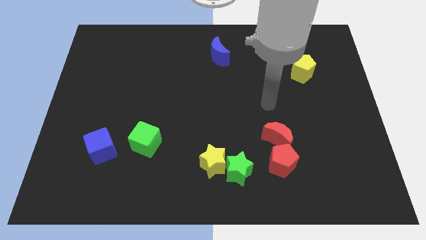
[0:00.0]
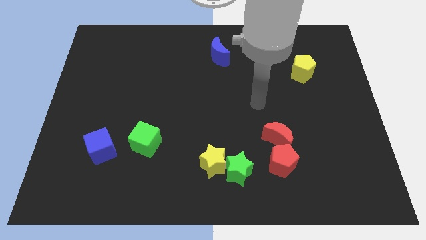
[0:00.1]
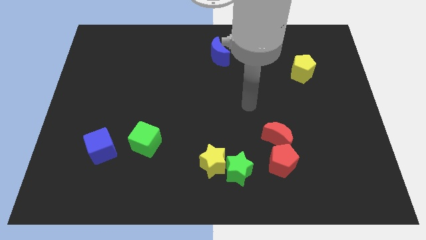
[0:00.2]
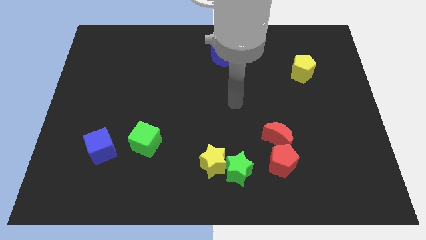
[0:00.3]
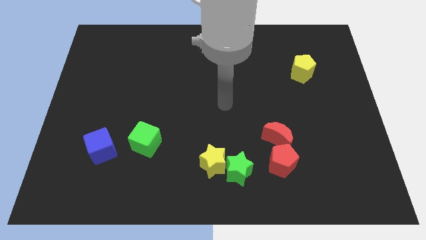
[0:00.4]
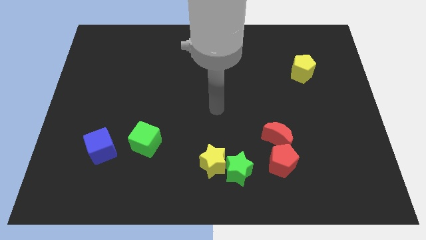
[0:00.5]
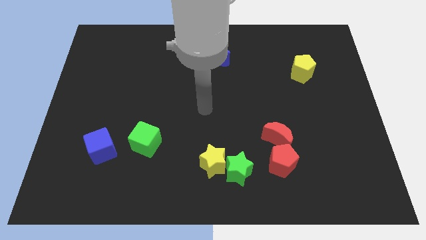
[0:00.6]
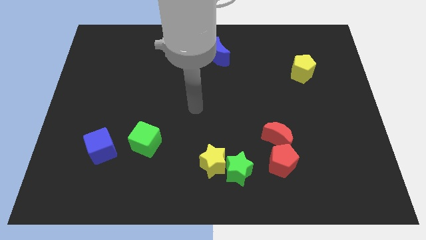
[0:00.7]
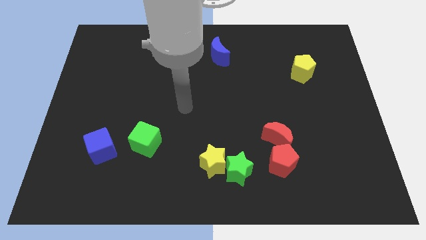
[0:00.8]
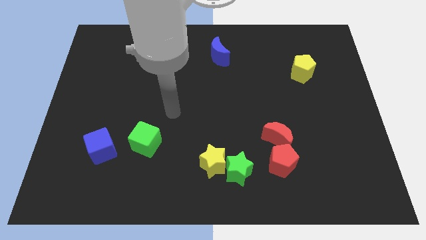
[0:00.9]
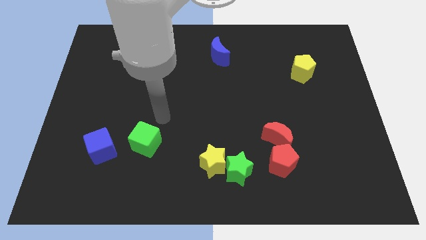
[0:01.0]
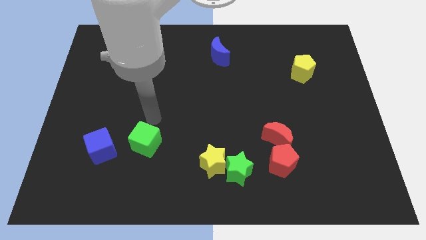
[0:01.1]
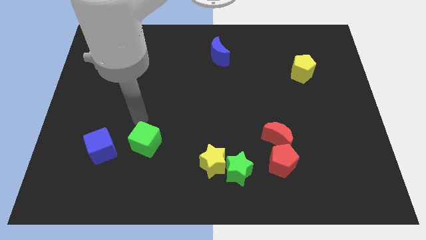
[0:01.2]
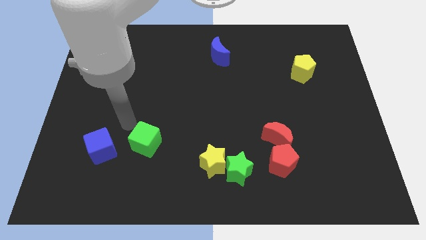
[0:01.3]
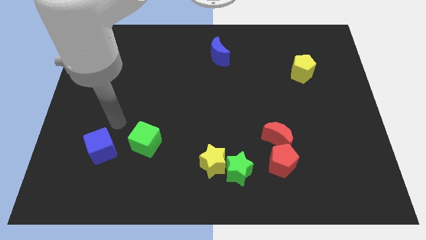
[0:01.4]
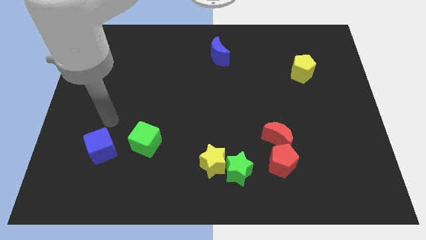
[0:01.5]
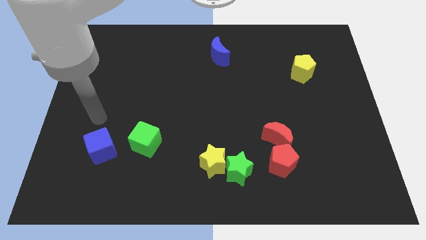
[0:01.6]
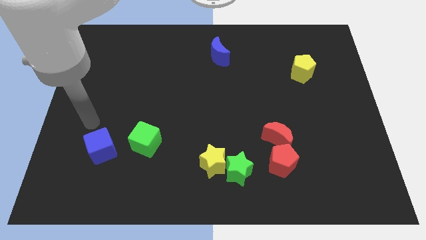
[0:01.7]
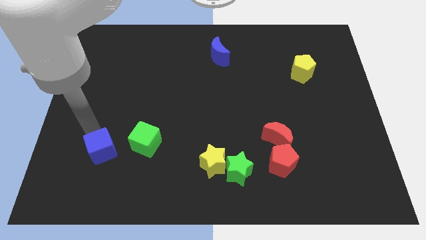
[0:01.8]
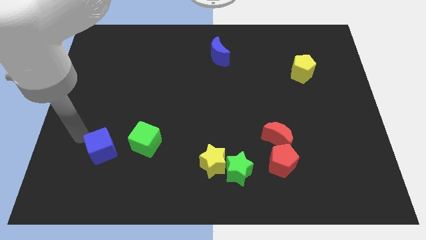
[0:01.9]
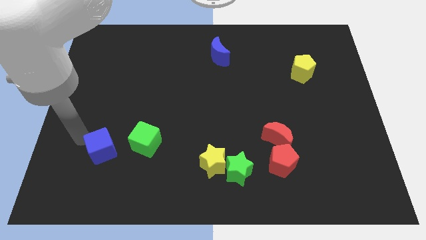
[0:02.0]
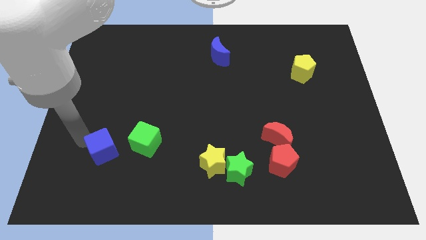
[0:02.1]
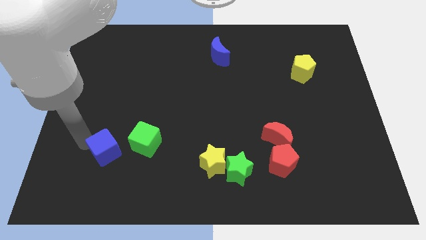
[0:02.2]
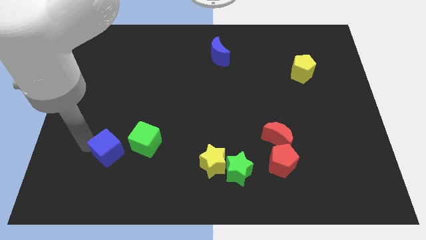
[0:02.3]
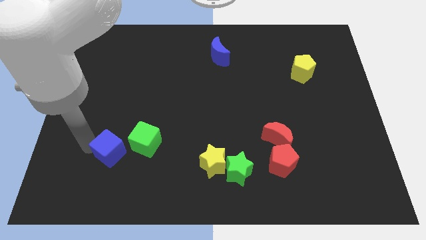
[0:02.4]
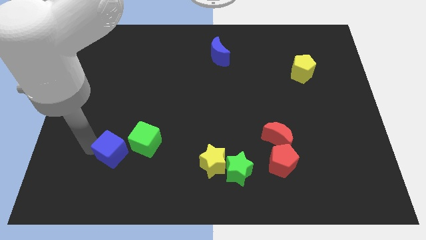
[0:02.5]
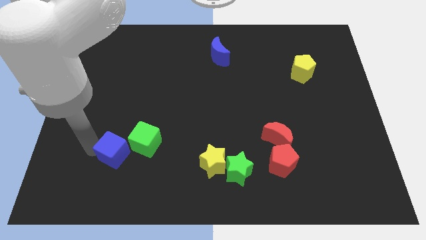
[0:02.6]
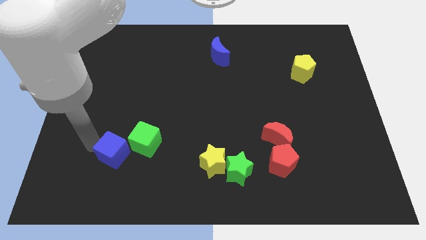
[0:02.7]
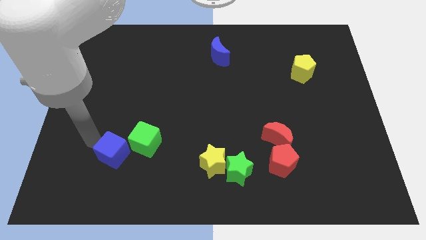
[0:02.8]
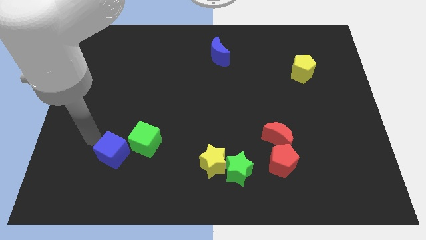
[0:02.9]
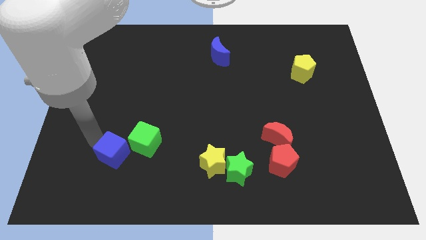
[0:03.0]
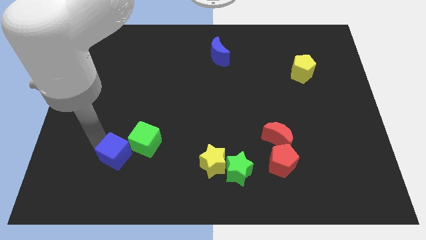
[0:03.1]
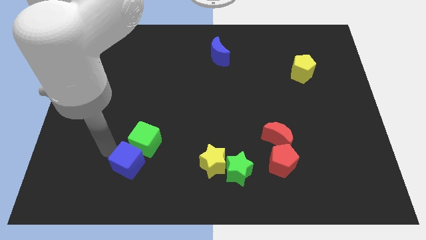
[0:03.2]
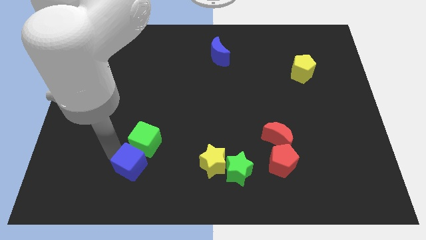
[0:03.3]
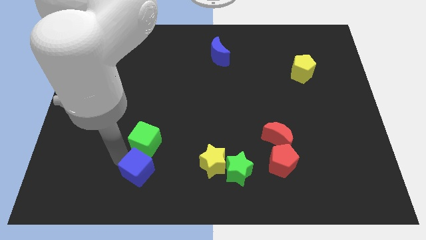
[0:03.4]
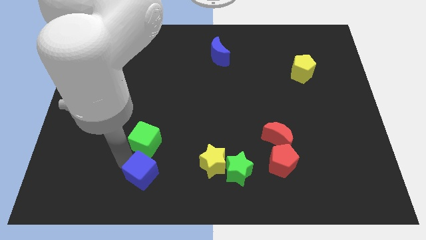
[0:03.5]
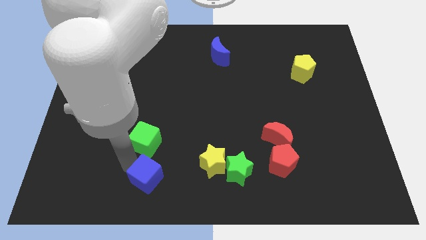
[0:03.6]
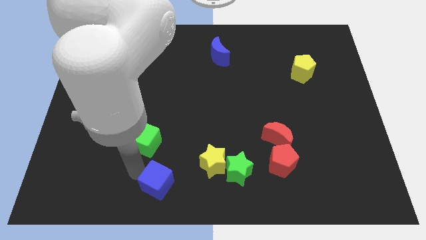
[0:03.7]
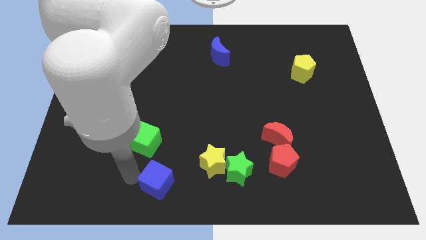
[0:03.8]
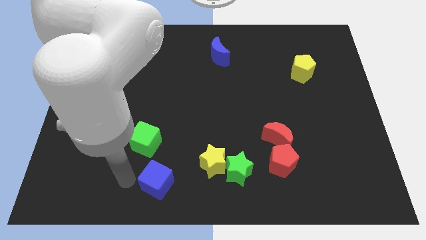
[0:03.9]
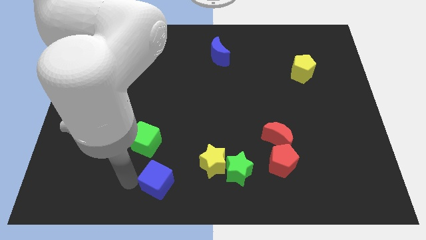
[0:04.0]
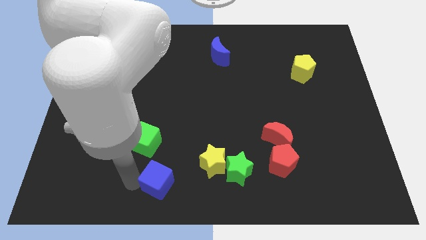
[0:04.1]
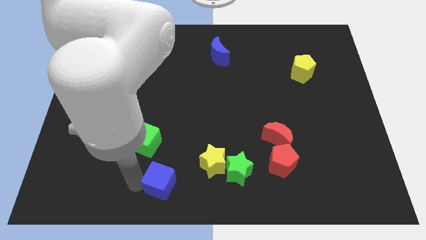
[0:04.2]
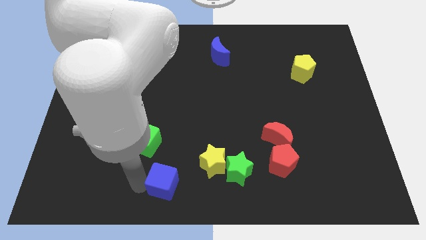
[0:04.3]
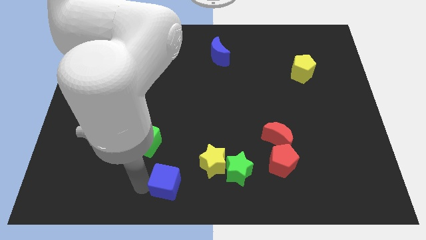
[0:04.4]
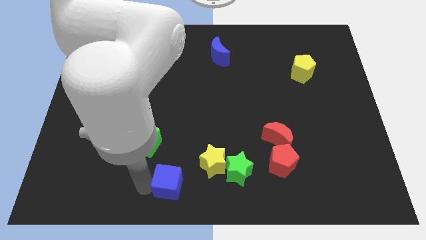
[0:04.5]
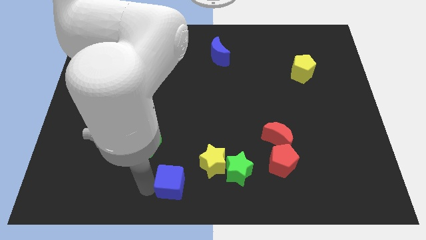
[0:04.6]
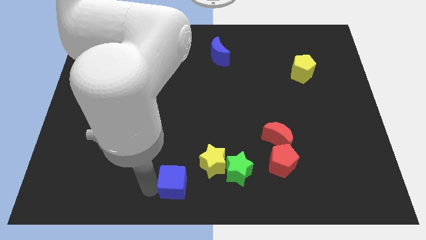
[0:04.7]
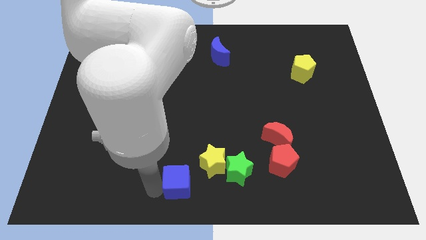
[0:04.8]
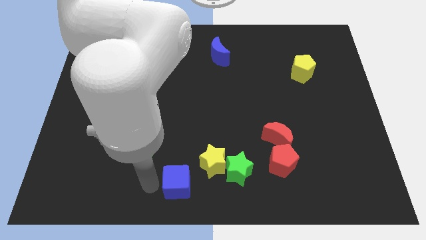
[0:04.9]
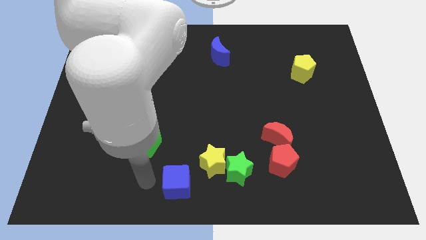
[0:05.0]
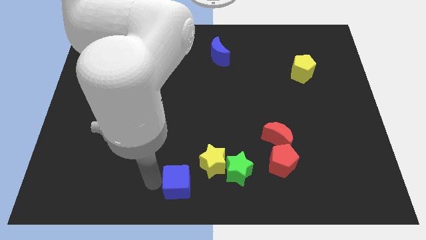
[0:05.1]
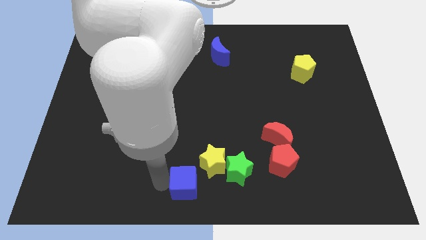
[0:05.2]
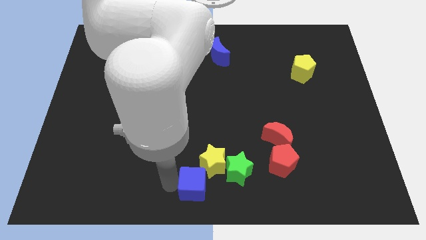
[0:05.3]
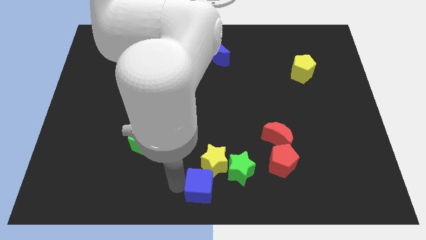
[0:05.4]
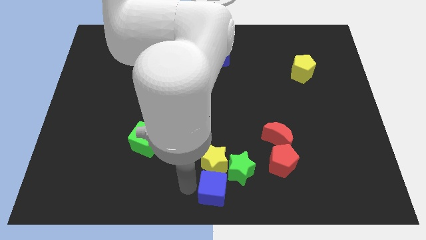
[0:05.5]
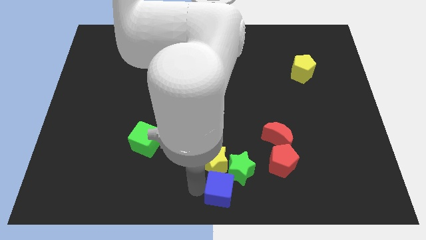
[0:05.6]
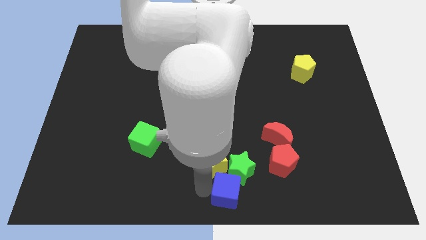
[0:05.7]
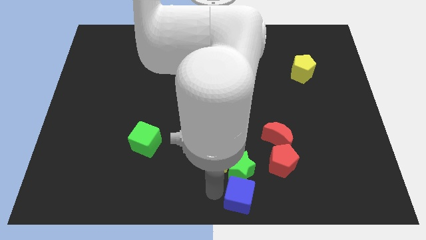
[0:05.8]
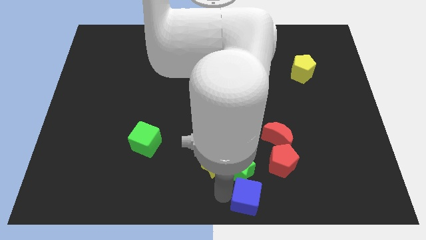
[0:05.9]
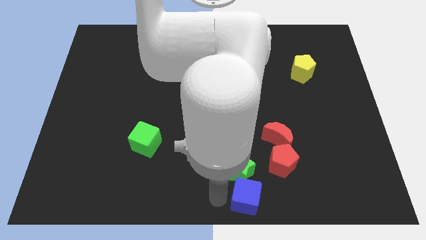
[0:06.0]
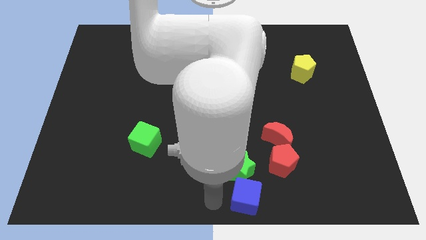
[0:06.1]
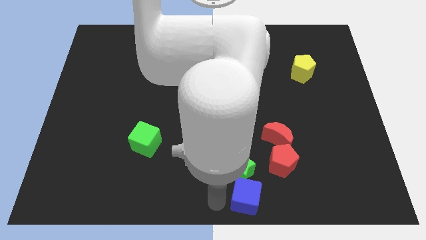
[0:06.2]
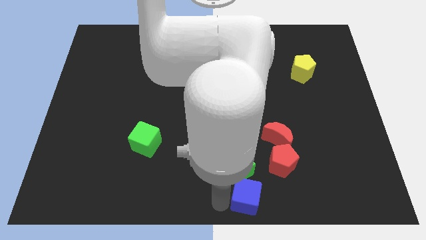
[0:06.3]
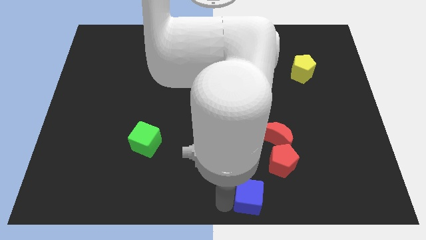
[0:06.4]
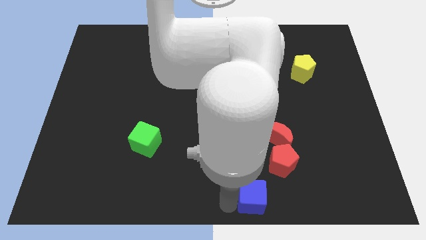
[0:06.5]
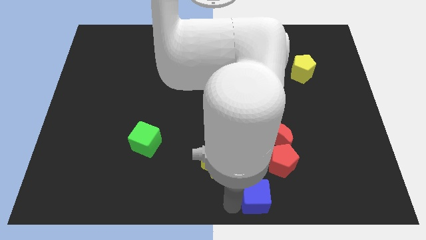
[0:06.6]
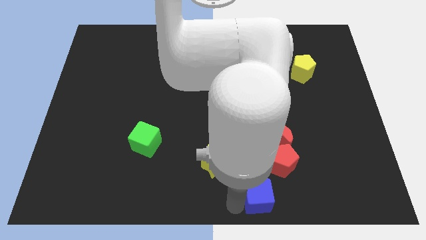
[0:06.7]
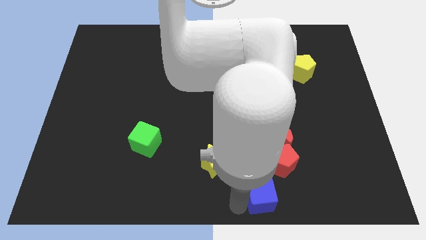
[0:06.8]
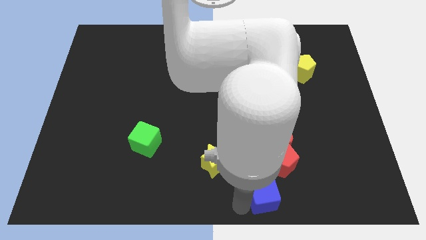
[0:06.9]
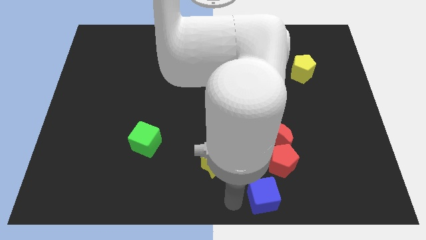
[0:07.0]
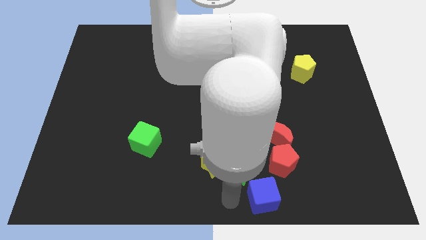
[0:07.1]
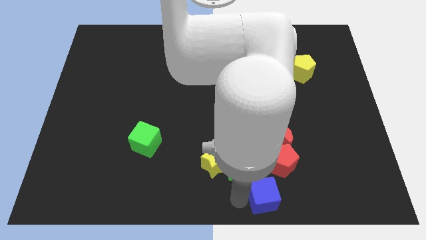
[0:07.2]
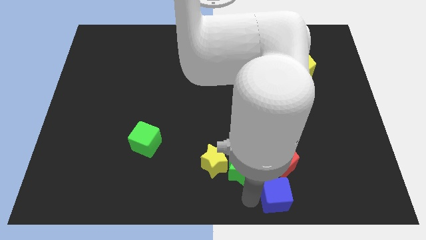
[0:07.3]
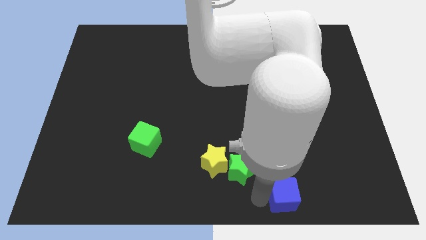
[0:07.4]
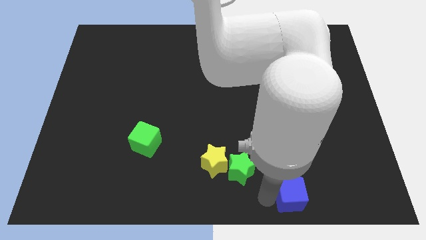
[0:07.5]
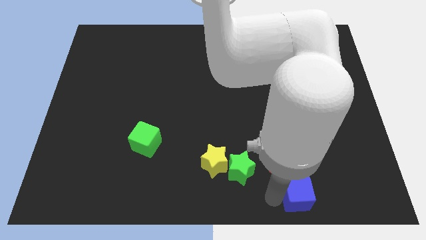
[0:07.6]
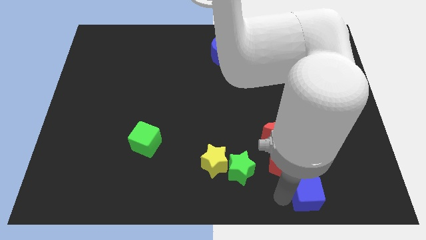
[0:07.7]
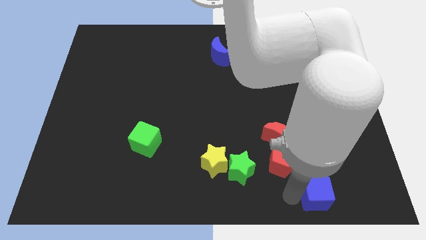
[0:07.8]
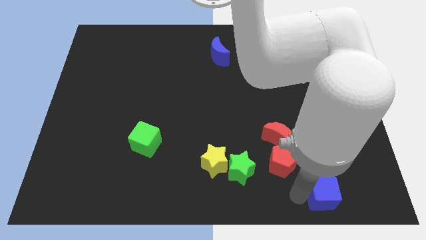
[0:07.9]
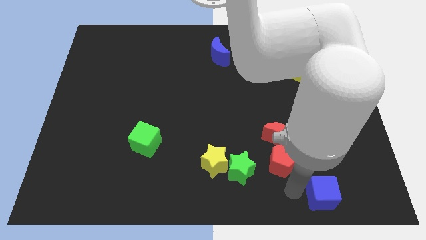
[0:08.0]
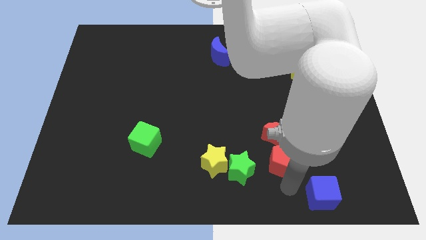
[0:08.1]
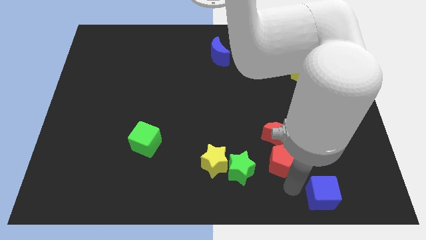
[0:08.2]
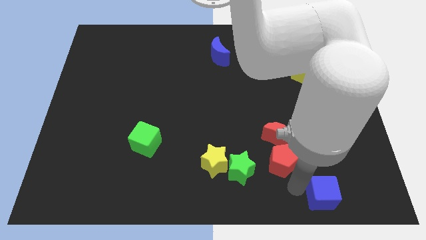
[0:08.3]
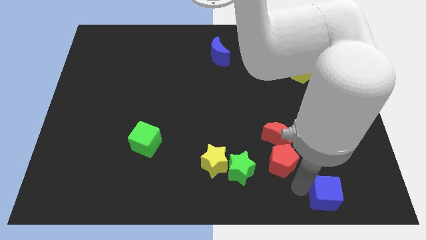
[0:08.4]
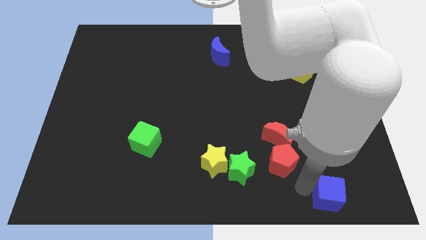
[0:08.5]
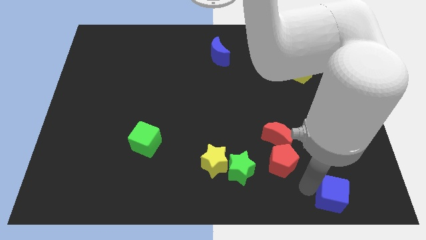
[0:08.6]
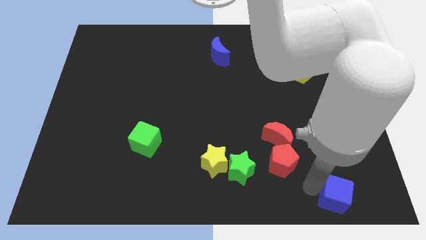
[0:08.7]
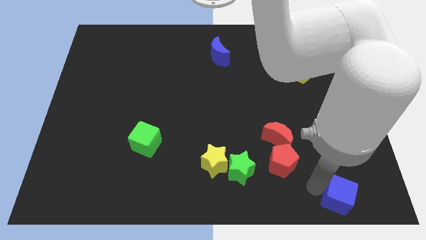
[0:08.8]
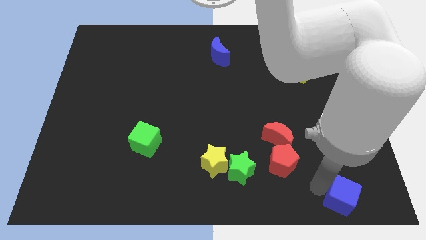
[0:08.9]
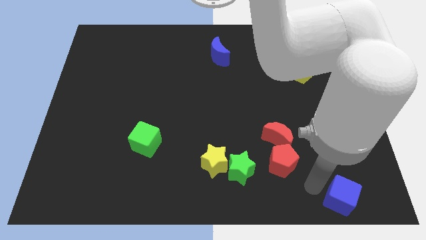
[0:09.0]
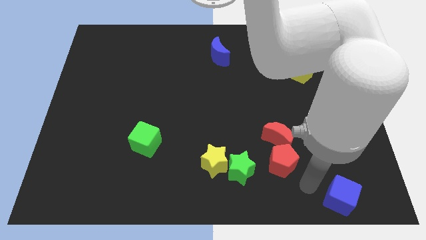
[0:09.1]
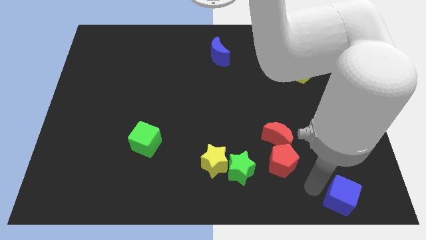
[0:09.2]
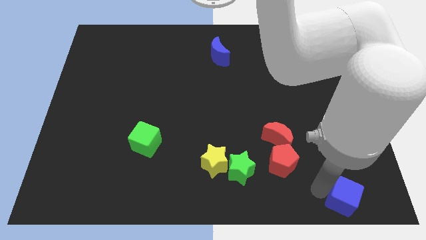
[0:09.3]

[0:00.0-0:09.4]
push the blue cube to the bottom right of the board
